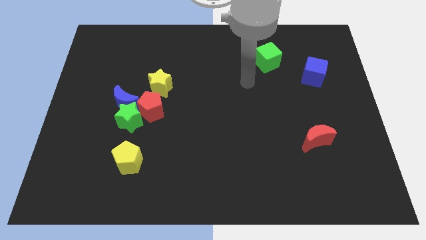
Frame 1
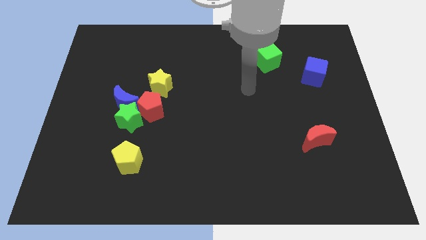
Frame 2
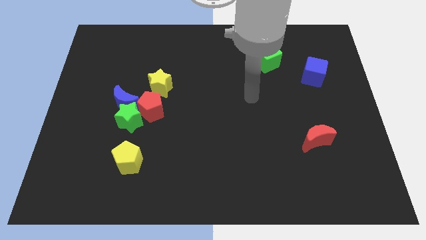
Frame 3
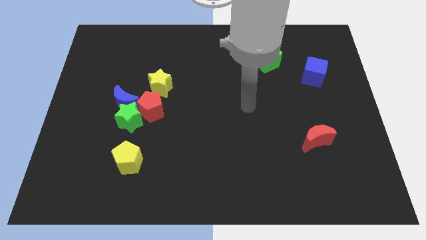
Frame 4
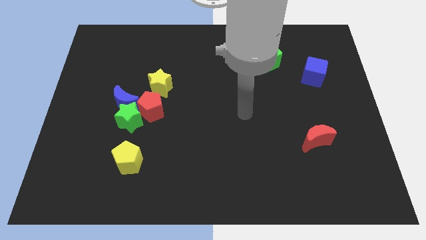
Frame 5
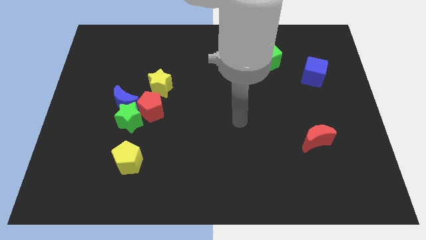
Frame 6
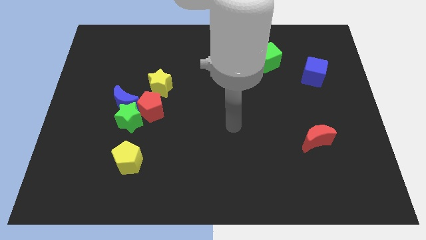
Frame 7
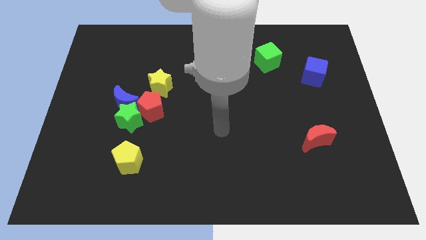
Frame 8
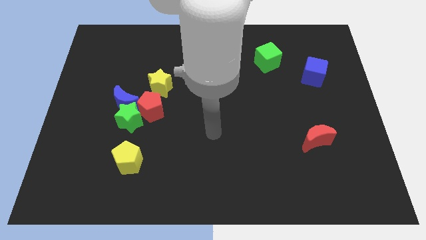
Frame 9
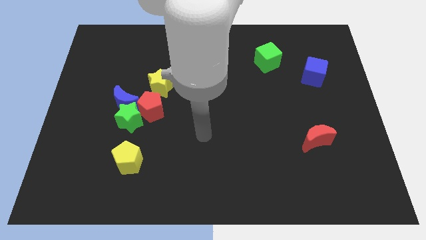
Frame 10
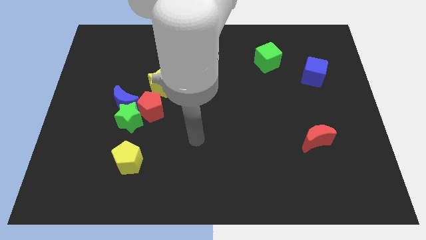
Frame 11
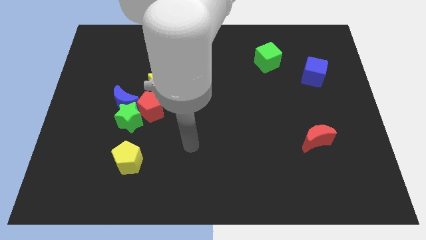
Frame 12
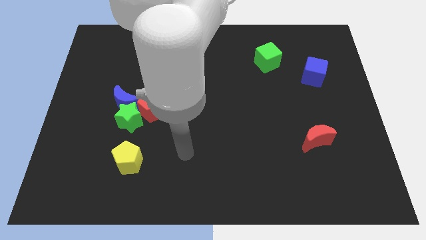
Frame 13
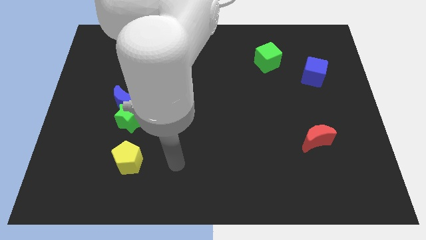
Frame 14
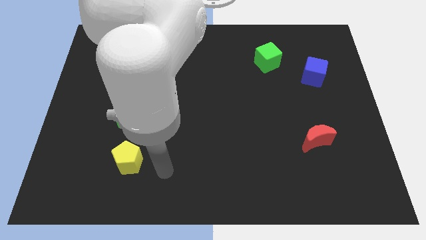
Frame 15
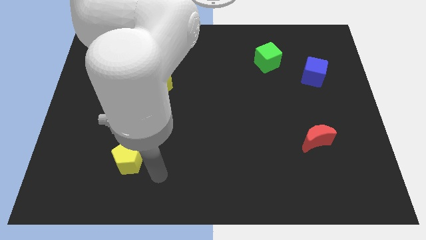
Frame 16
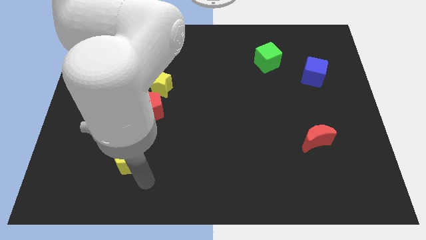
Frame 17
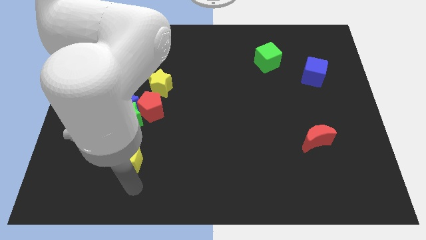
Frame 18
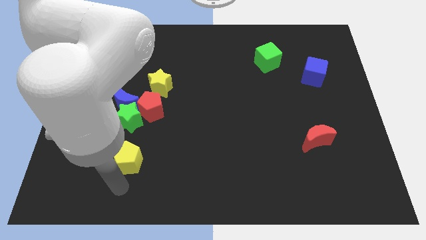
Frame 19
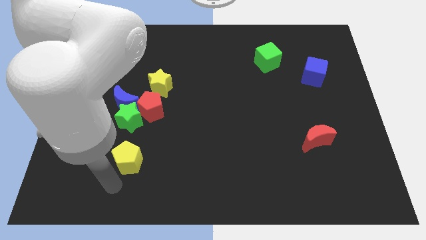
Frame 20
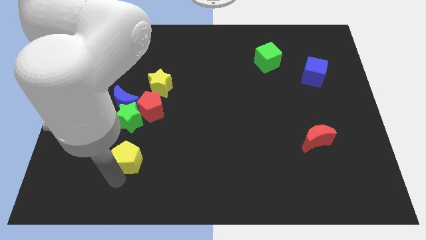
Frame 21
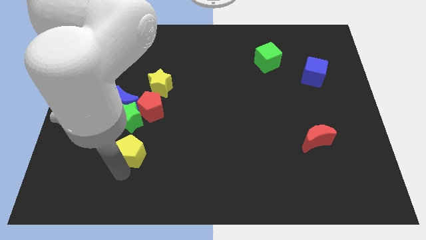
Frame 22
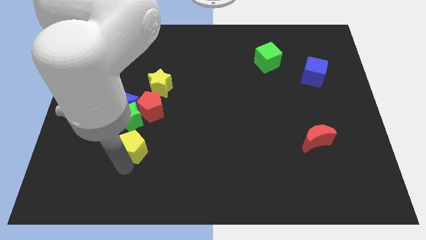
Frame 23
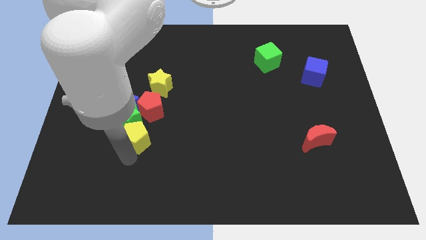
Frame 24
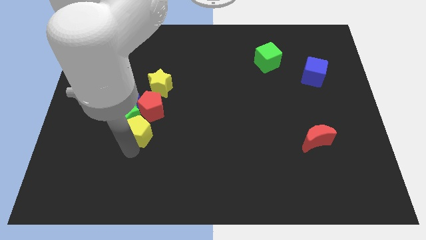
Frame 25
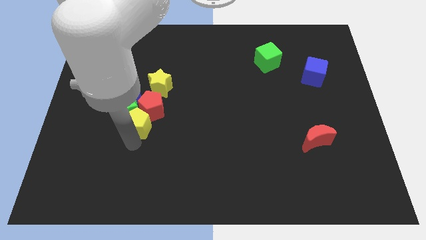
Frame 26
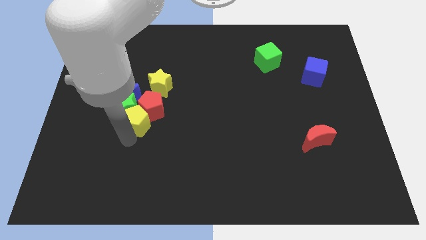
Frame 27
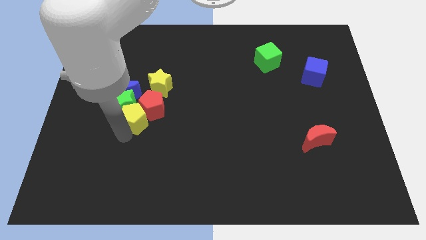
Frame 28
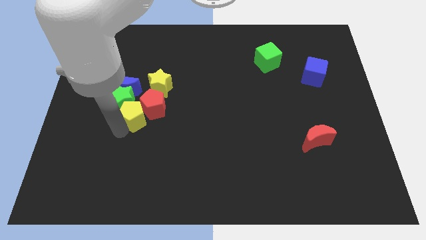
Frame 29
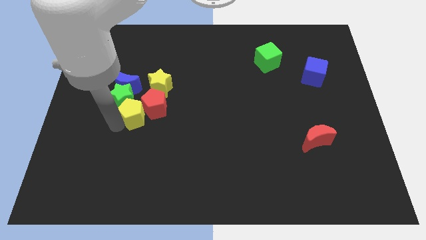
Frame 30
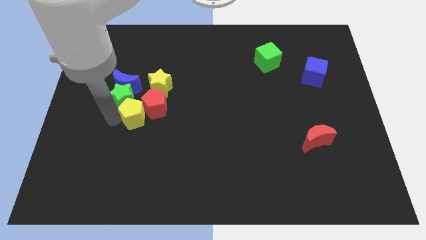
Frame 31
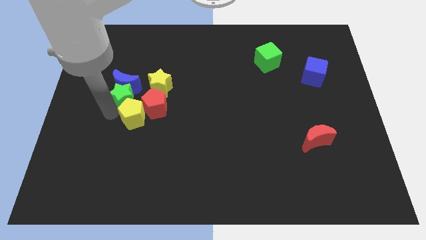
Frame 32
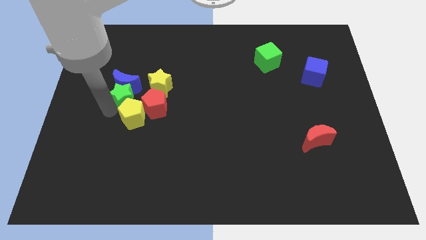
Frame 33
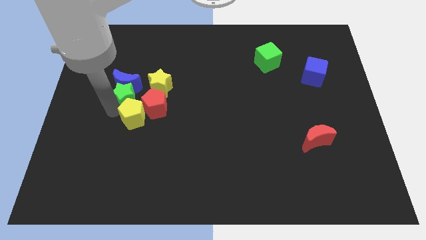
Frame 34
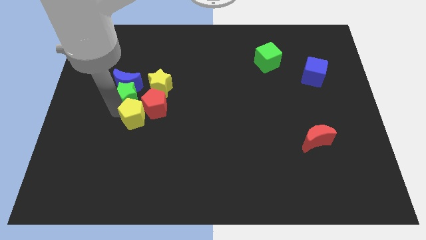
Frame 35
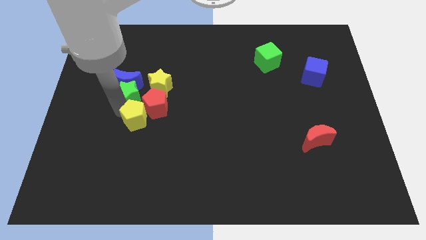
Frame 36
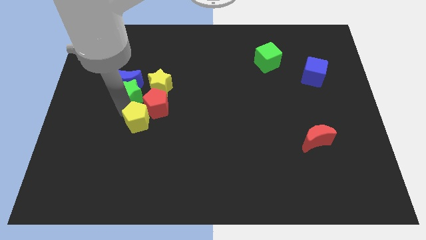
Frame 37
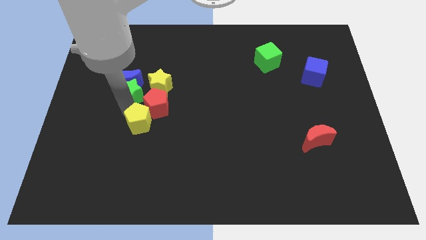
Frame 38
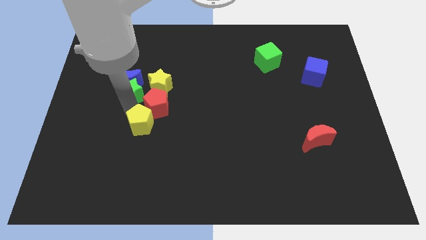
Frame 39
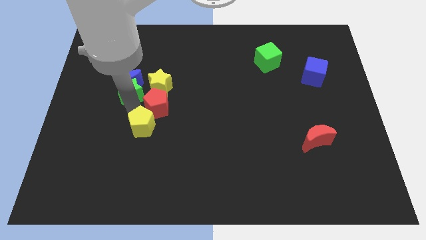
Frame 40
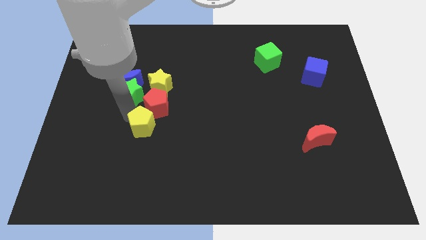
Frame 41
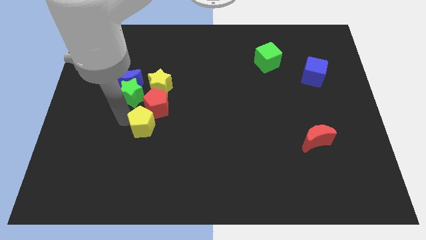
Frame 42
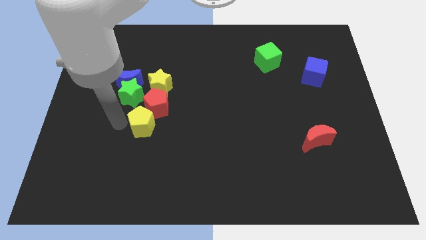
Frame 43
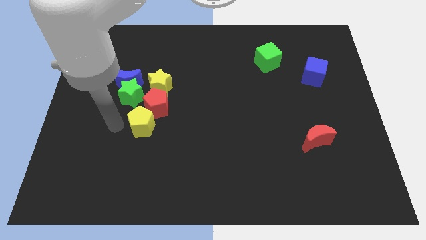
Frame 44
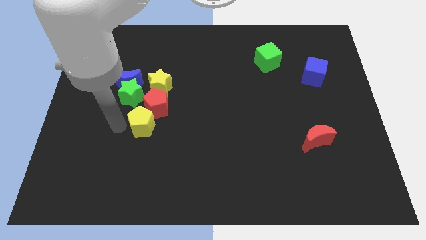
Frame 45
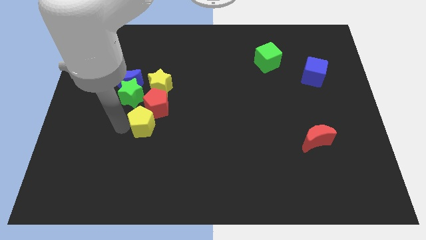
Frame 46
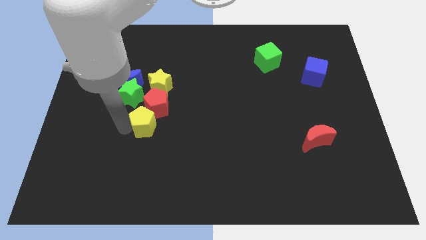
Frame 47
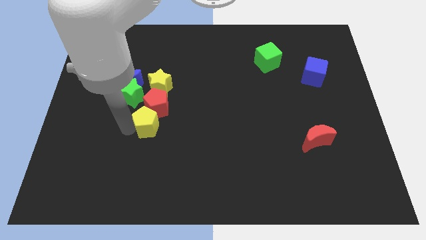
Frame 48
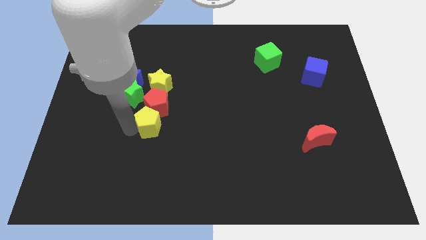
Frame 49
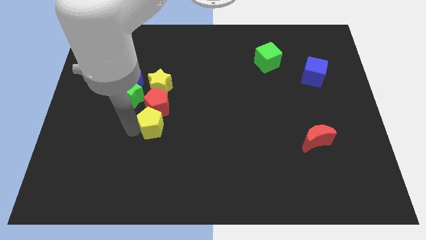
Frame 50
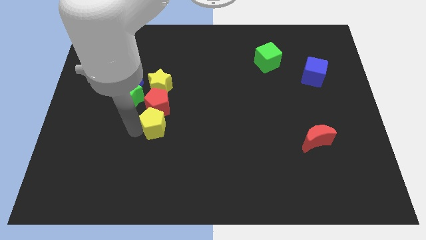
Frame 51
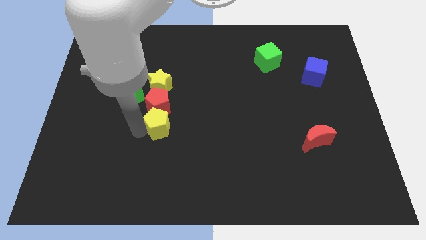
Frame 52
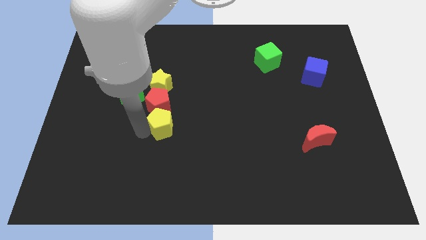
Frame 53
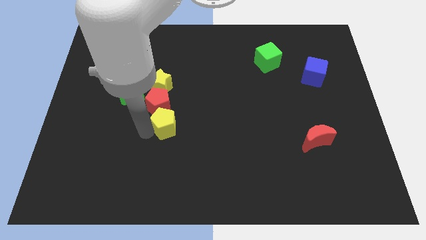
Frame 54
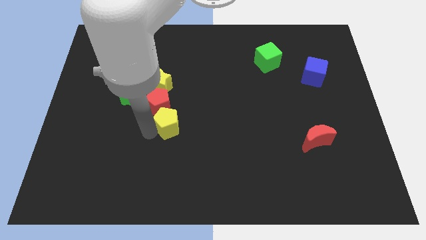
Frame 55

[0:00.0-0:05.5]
put the yellow pentagon to the center of the board

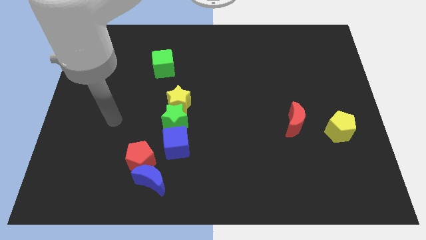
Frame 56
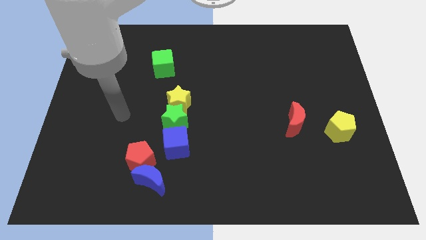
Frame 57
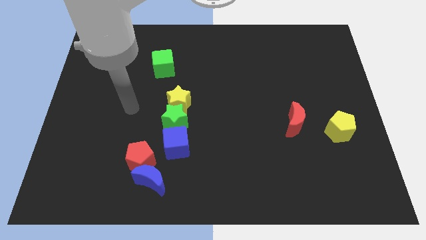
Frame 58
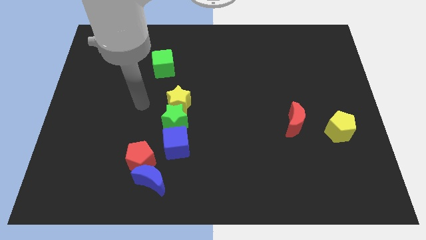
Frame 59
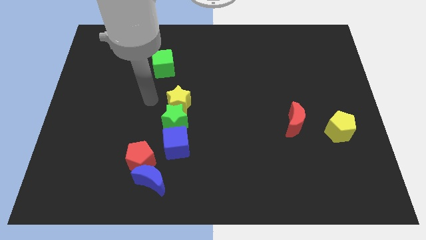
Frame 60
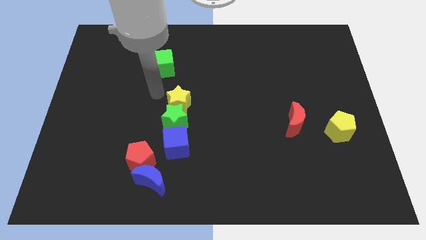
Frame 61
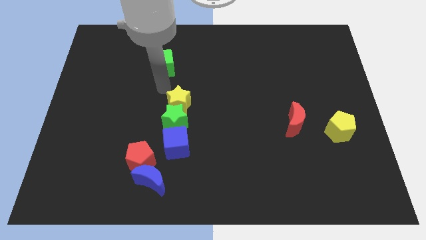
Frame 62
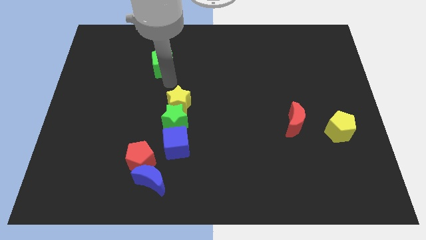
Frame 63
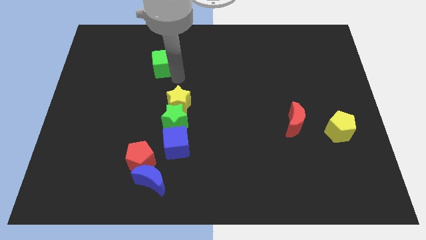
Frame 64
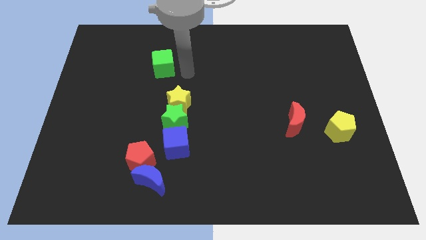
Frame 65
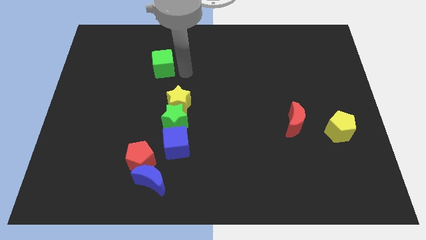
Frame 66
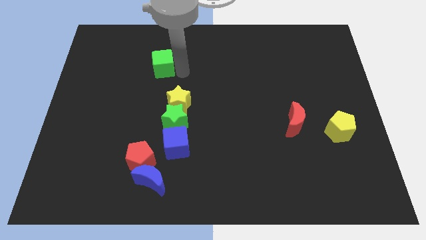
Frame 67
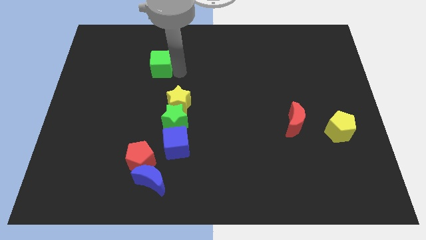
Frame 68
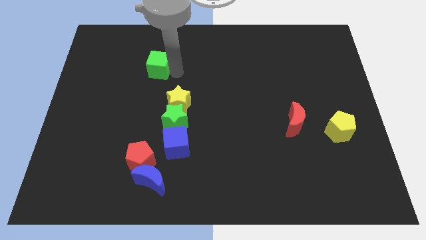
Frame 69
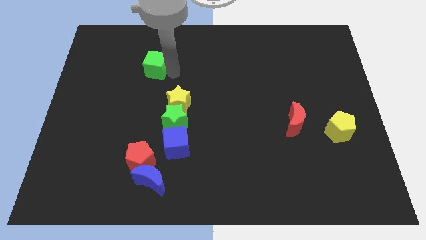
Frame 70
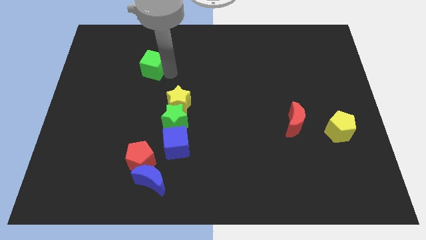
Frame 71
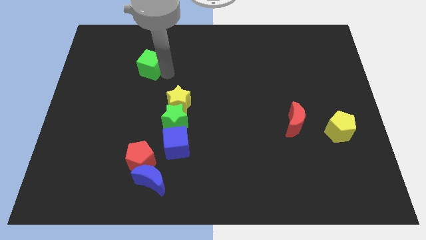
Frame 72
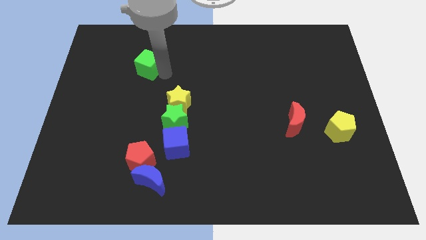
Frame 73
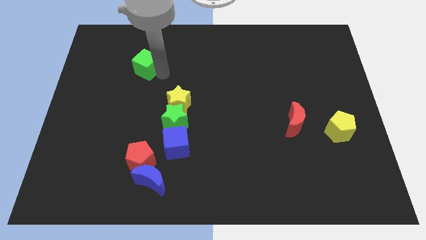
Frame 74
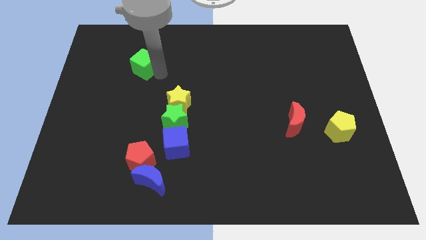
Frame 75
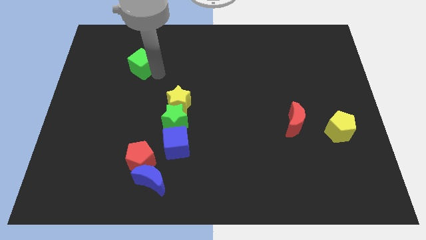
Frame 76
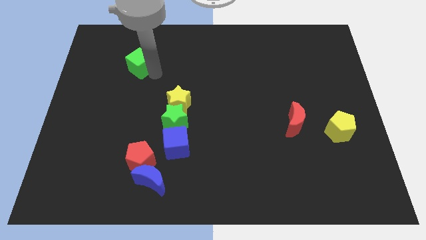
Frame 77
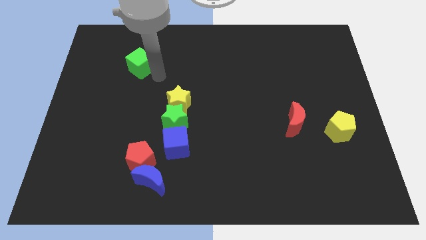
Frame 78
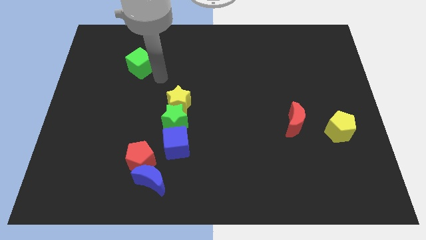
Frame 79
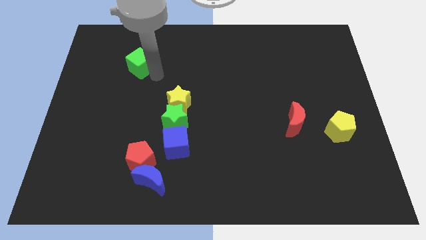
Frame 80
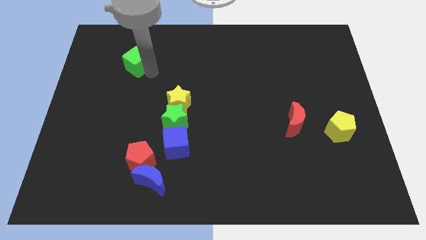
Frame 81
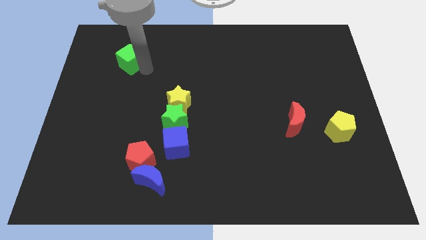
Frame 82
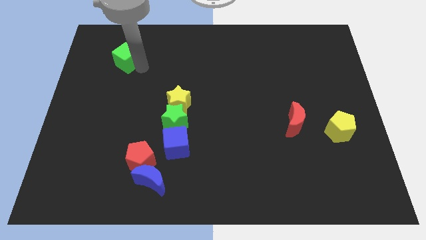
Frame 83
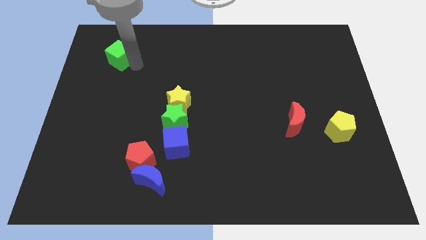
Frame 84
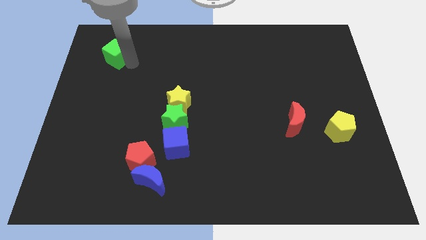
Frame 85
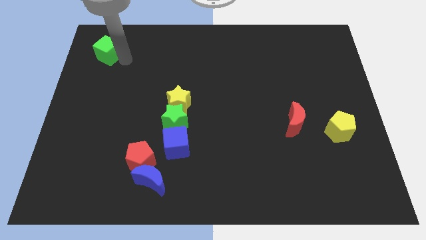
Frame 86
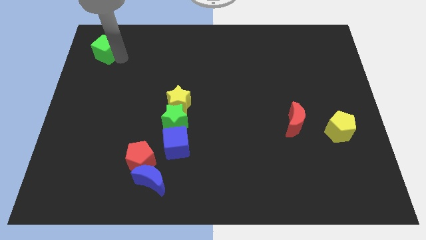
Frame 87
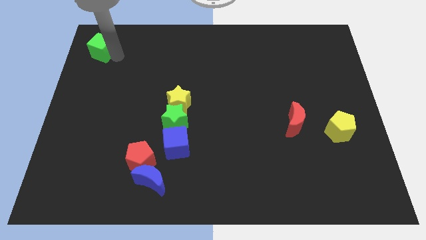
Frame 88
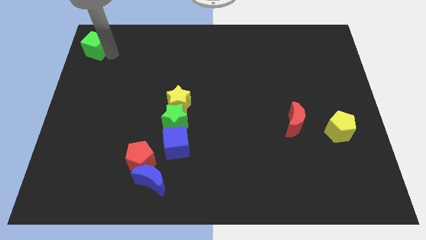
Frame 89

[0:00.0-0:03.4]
slide the green cube to the top left corner
